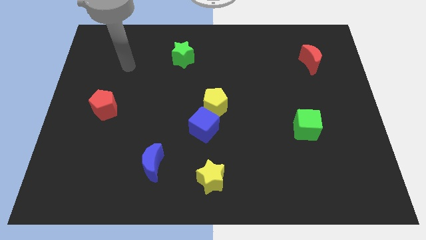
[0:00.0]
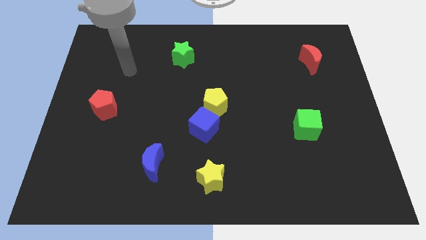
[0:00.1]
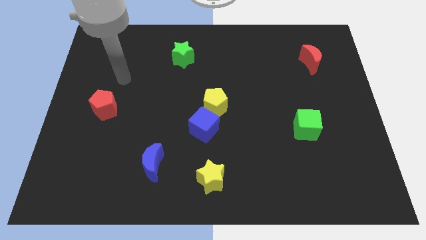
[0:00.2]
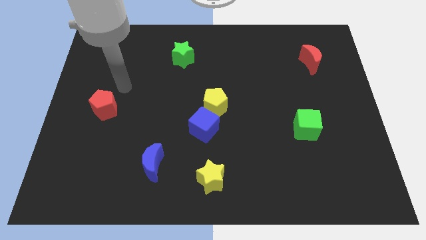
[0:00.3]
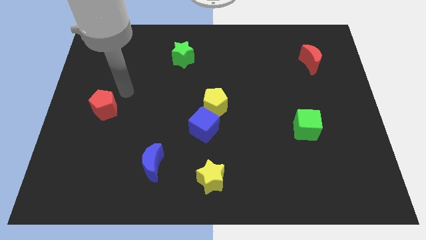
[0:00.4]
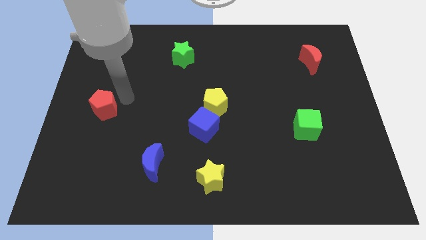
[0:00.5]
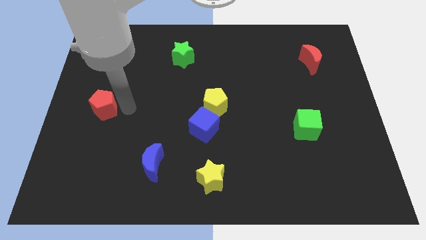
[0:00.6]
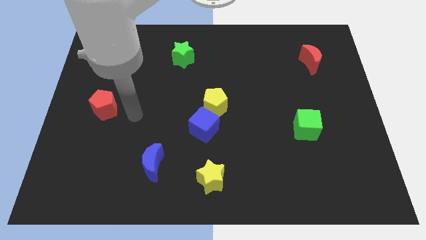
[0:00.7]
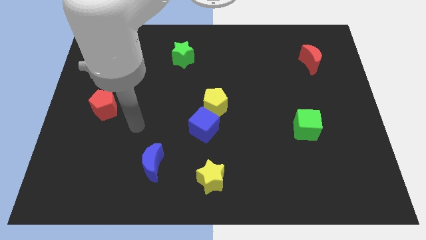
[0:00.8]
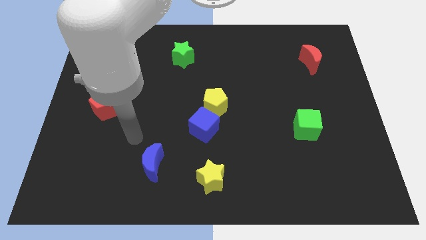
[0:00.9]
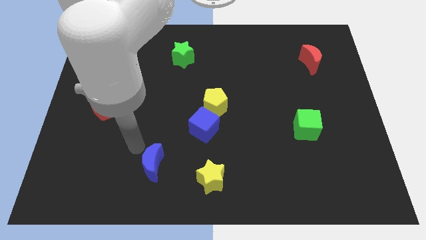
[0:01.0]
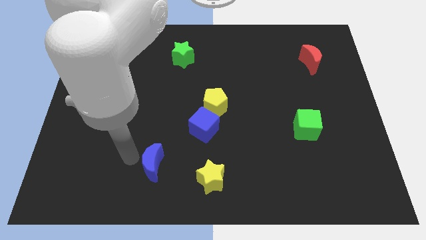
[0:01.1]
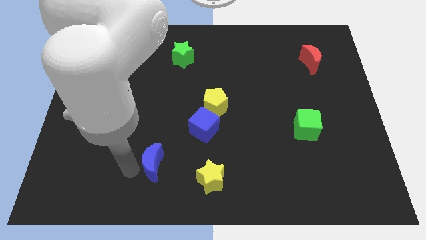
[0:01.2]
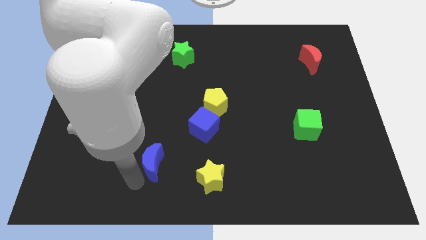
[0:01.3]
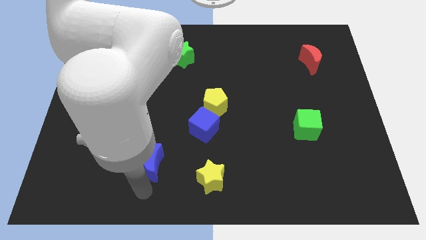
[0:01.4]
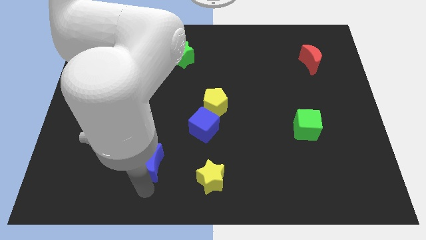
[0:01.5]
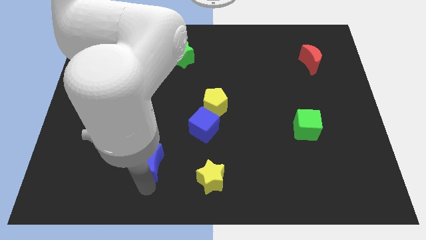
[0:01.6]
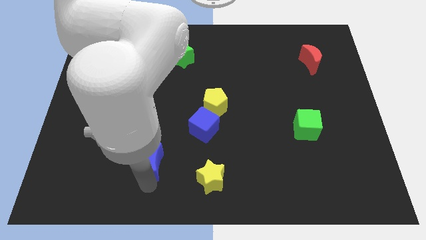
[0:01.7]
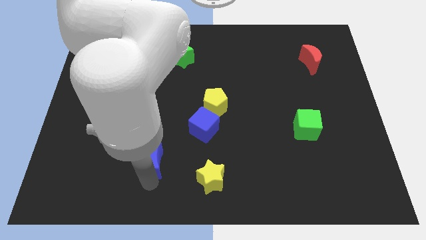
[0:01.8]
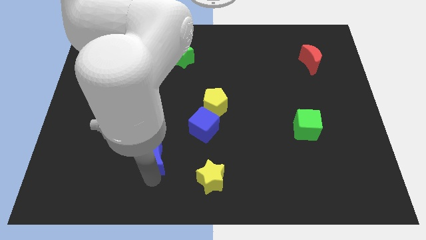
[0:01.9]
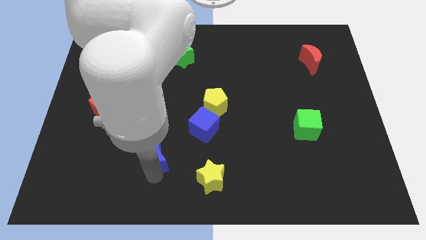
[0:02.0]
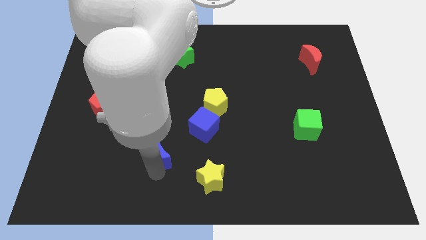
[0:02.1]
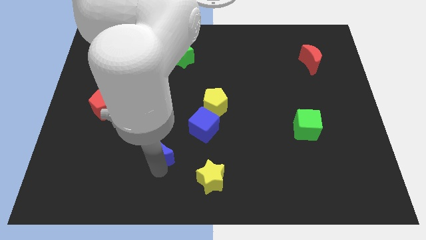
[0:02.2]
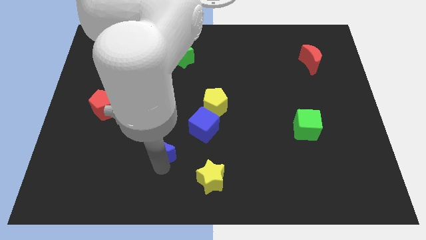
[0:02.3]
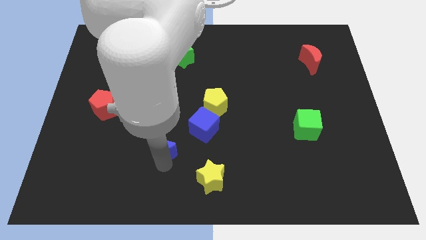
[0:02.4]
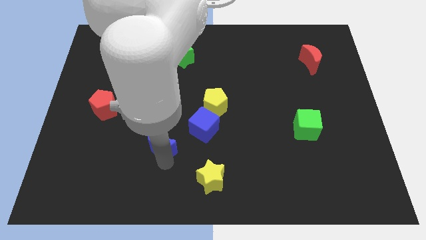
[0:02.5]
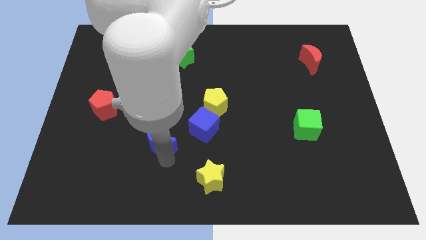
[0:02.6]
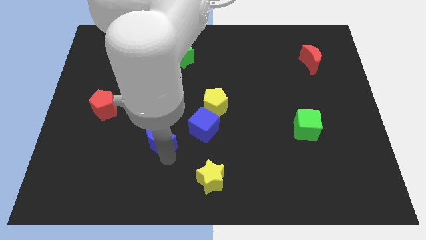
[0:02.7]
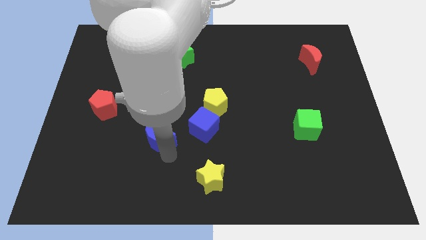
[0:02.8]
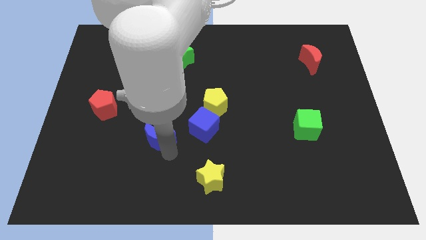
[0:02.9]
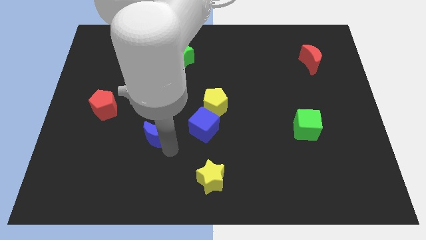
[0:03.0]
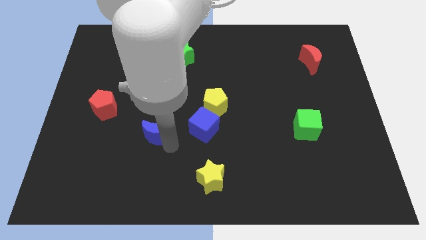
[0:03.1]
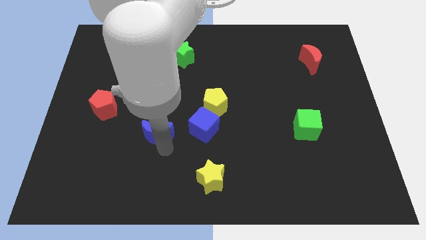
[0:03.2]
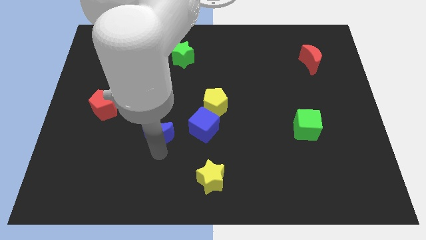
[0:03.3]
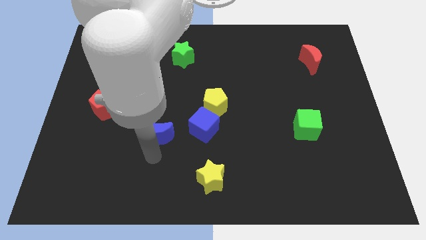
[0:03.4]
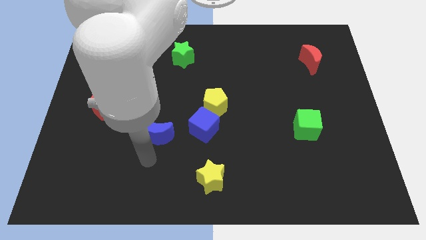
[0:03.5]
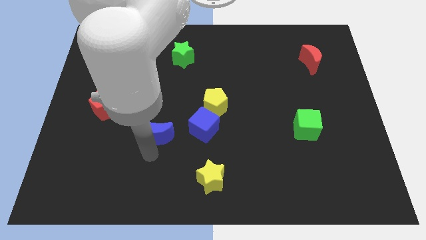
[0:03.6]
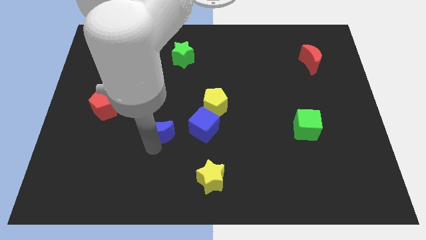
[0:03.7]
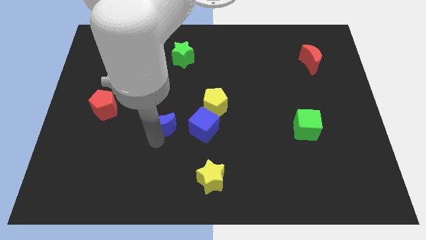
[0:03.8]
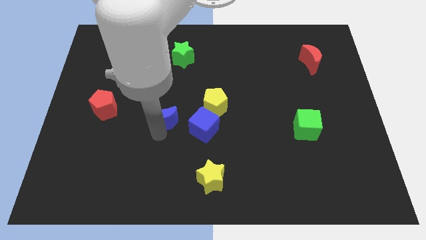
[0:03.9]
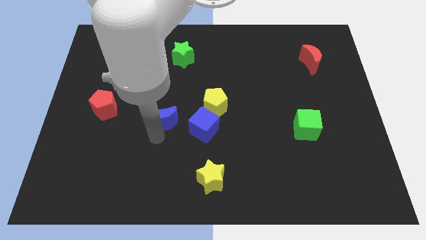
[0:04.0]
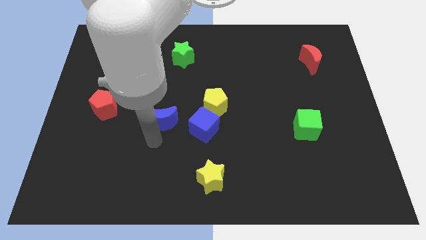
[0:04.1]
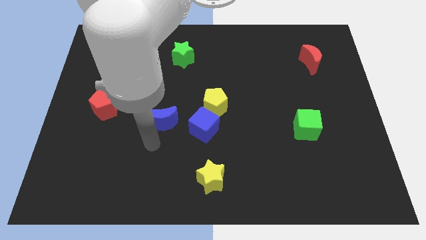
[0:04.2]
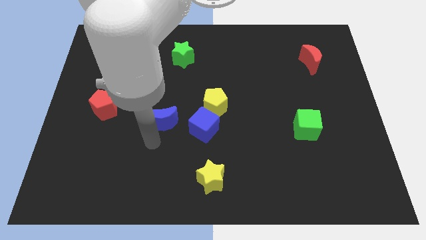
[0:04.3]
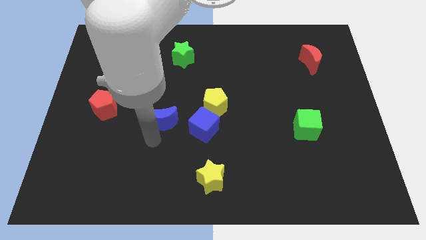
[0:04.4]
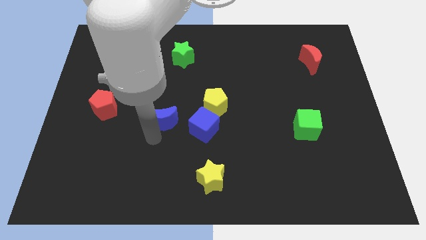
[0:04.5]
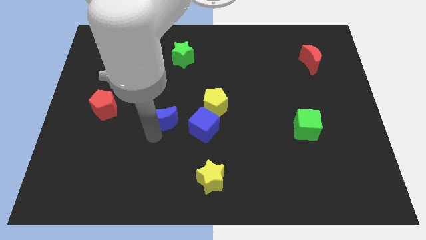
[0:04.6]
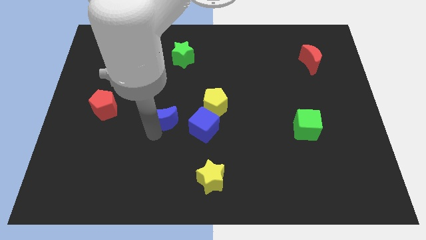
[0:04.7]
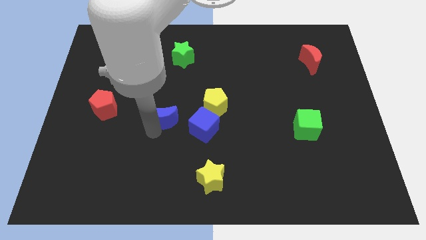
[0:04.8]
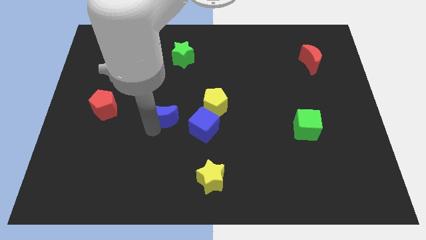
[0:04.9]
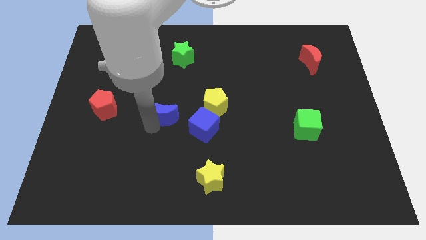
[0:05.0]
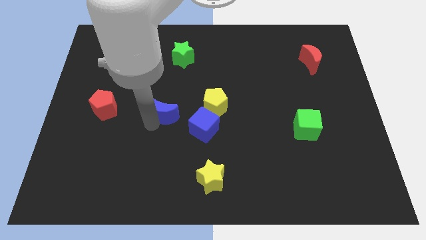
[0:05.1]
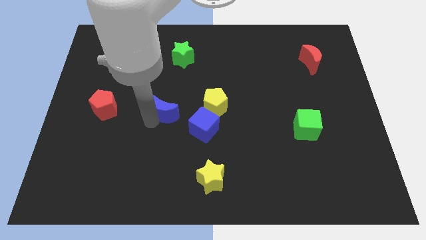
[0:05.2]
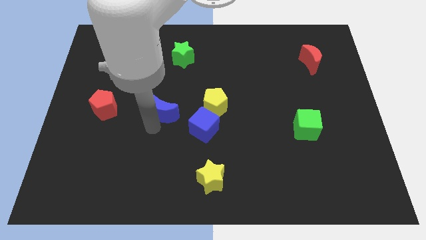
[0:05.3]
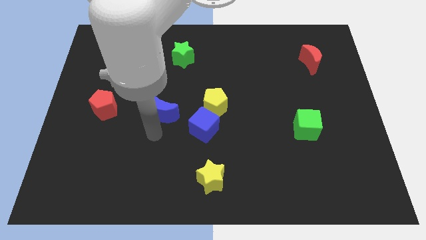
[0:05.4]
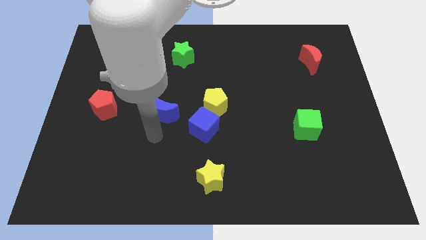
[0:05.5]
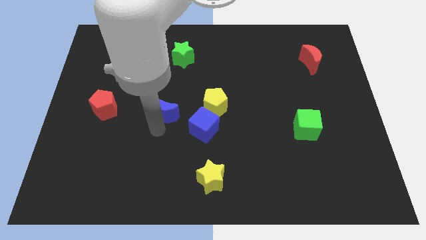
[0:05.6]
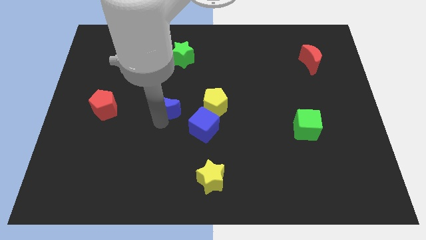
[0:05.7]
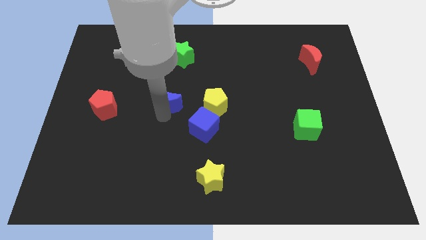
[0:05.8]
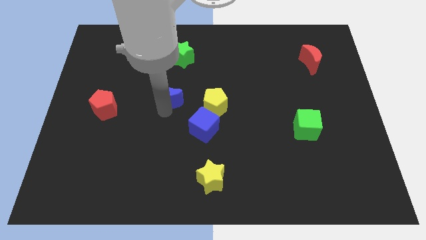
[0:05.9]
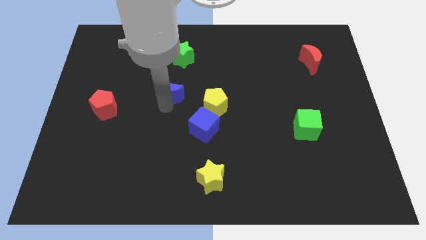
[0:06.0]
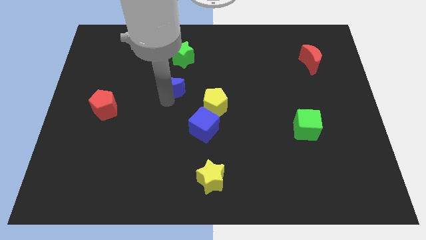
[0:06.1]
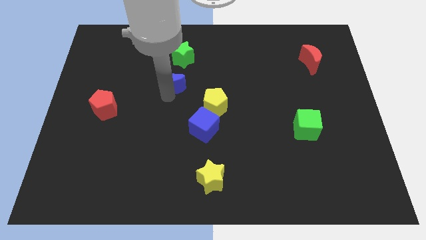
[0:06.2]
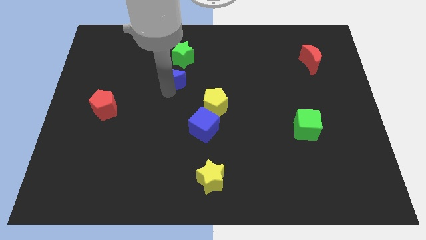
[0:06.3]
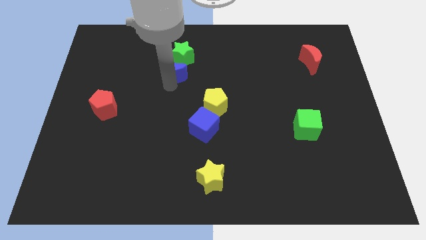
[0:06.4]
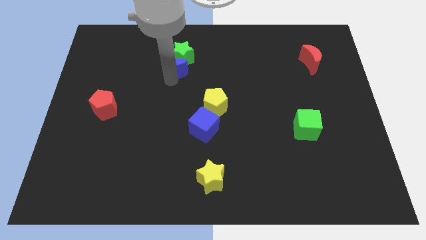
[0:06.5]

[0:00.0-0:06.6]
push the blue moon close to the green star

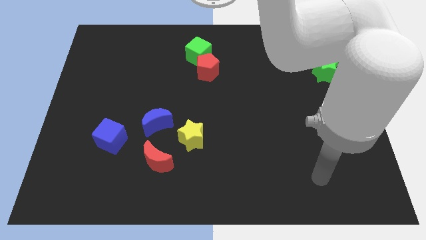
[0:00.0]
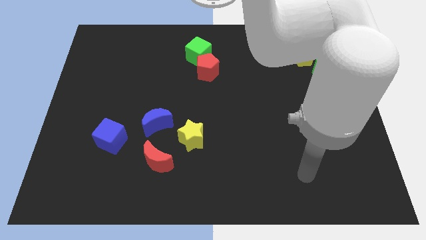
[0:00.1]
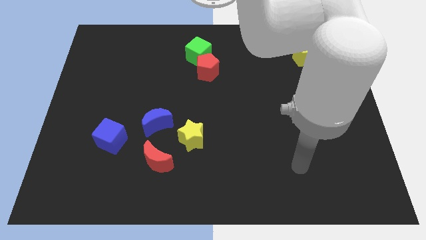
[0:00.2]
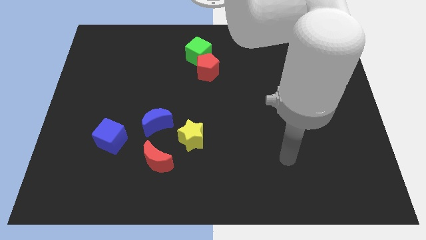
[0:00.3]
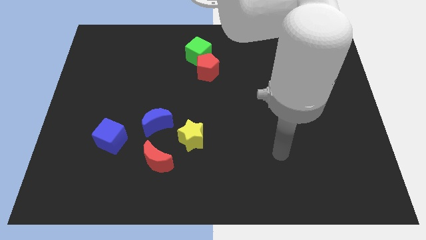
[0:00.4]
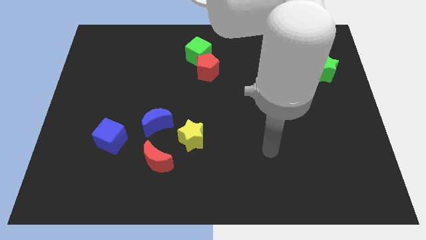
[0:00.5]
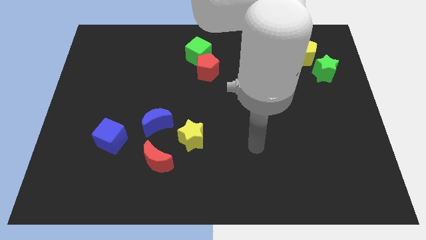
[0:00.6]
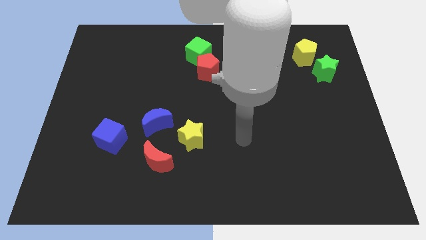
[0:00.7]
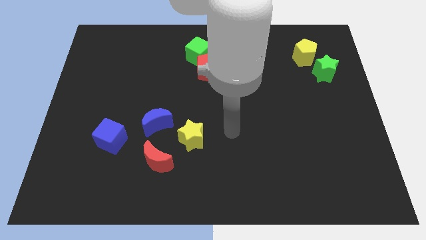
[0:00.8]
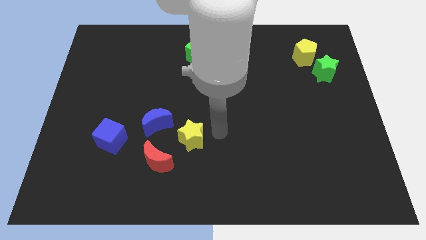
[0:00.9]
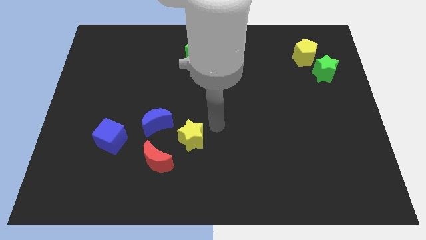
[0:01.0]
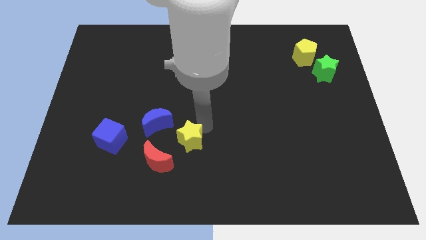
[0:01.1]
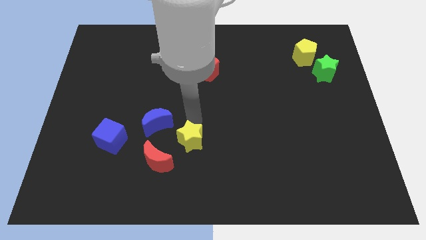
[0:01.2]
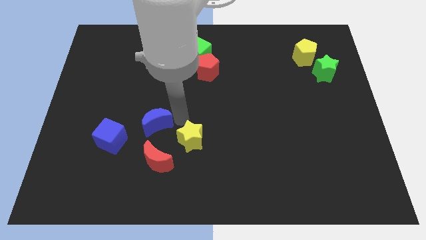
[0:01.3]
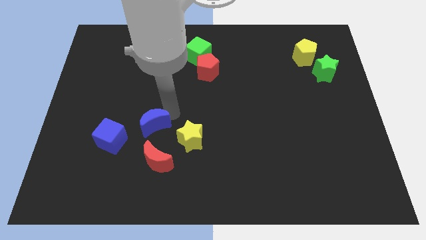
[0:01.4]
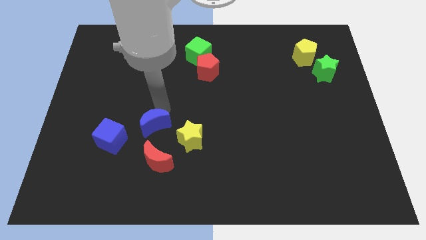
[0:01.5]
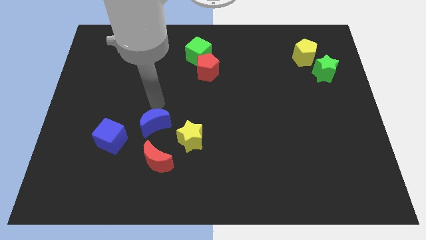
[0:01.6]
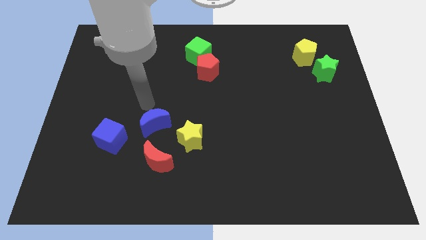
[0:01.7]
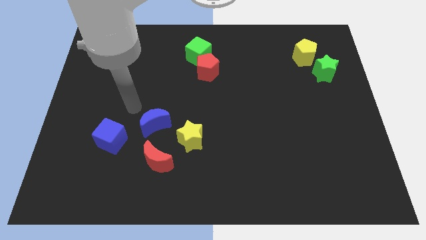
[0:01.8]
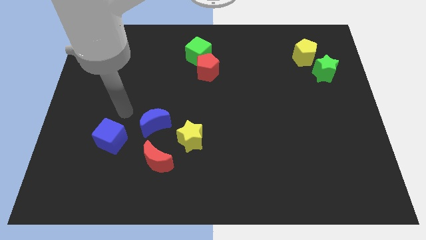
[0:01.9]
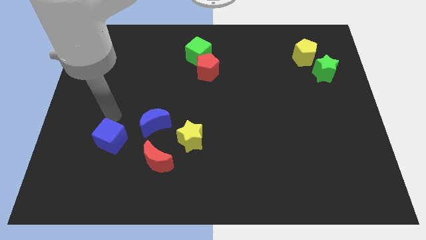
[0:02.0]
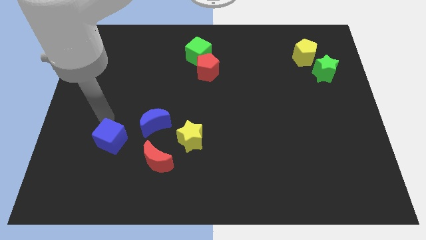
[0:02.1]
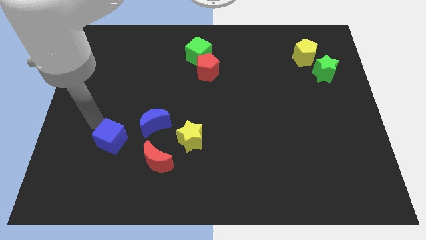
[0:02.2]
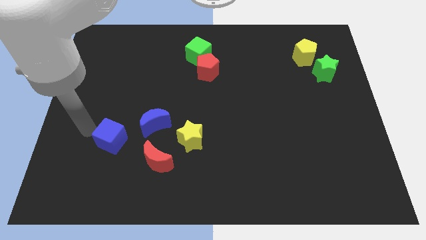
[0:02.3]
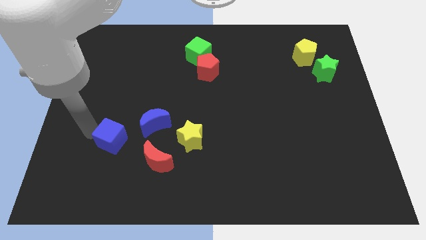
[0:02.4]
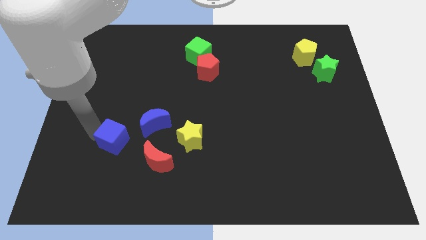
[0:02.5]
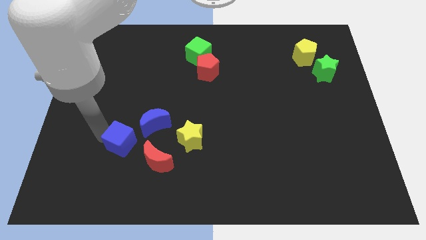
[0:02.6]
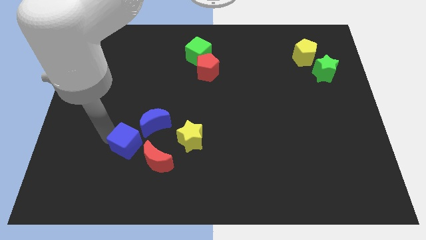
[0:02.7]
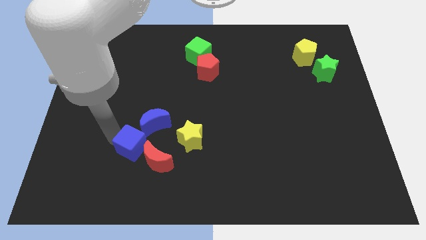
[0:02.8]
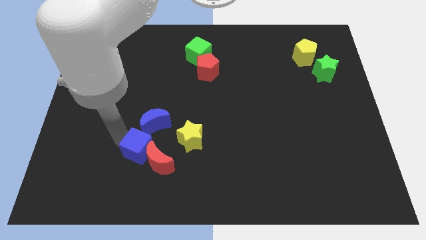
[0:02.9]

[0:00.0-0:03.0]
push the blue cube to the red moon
